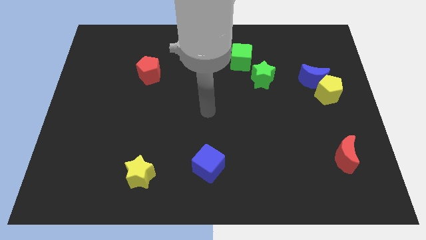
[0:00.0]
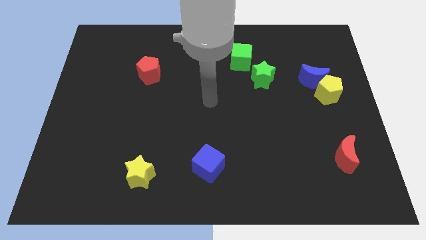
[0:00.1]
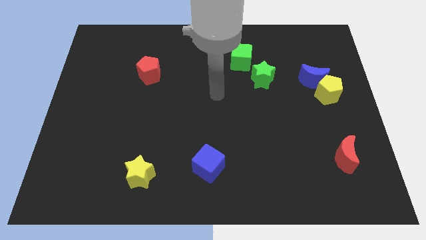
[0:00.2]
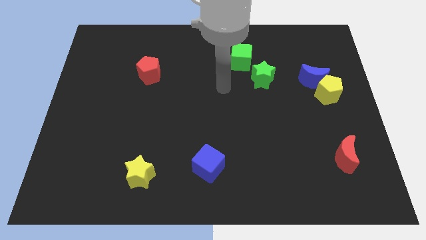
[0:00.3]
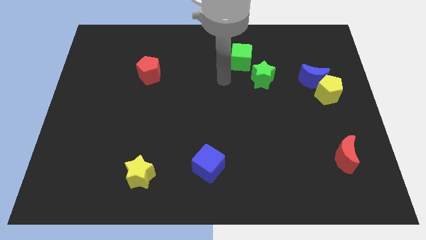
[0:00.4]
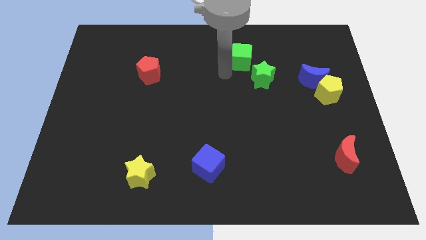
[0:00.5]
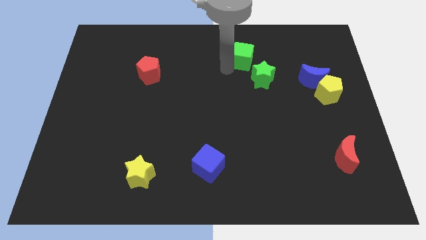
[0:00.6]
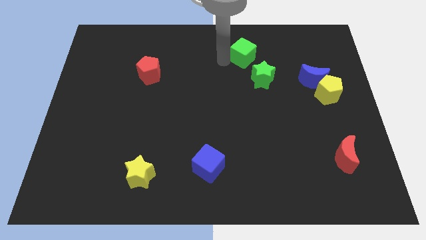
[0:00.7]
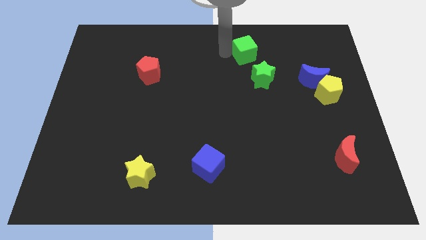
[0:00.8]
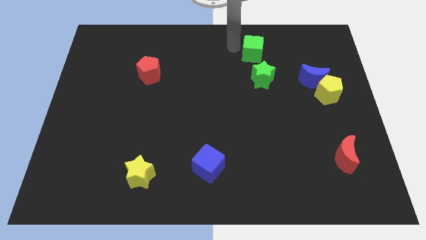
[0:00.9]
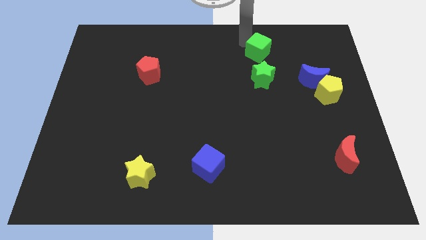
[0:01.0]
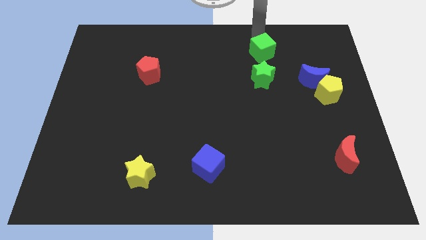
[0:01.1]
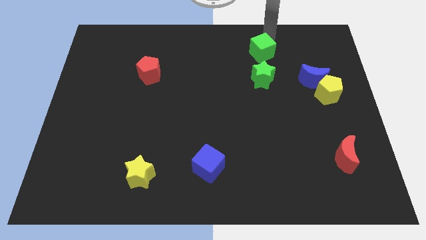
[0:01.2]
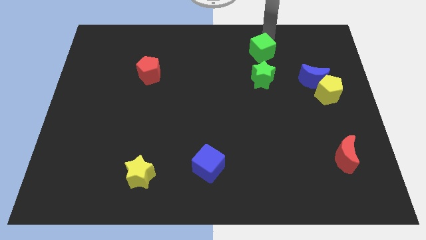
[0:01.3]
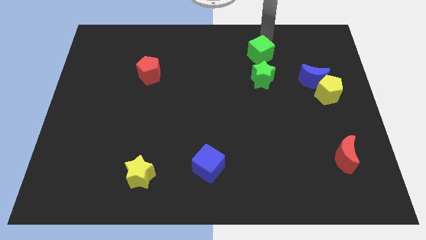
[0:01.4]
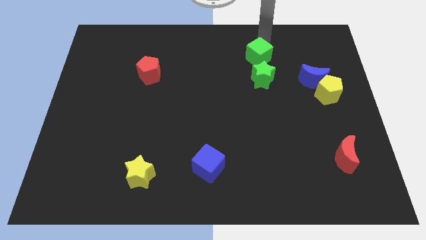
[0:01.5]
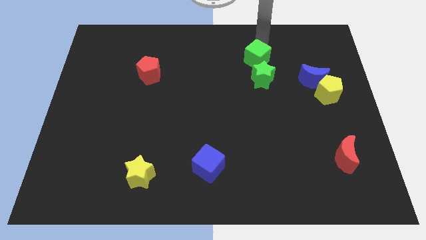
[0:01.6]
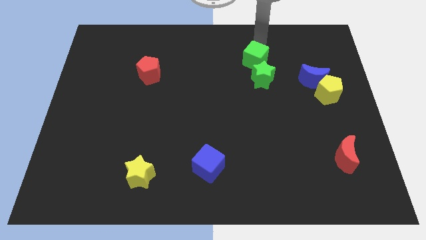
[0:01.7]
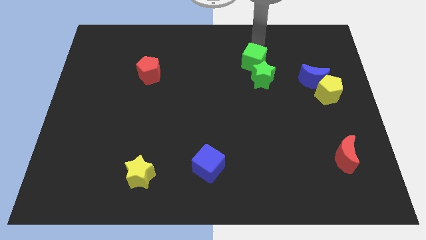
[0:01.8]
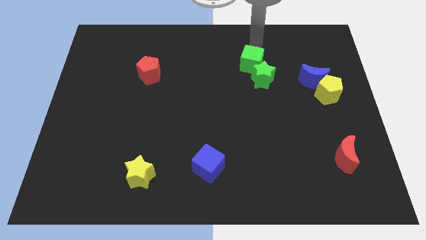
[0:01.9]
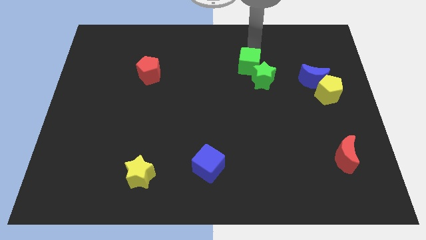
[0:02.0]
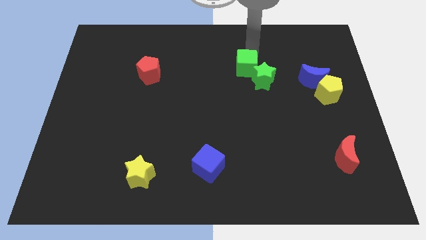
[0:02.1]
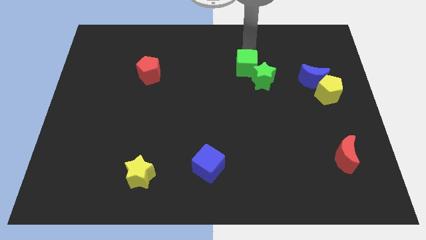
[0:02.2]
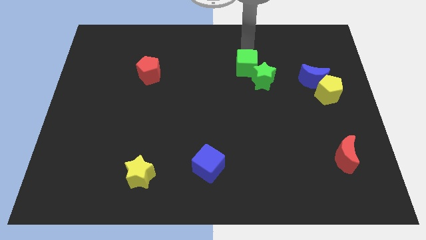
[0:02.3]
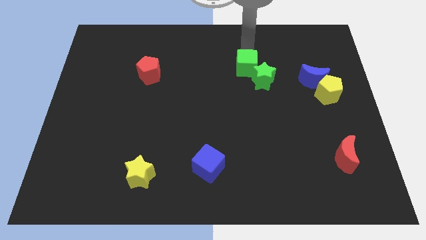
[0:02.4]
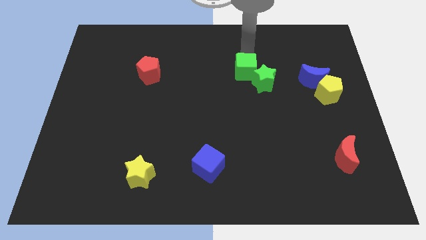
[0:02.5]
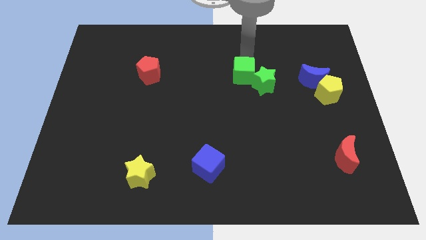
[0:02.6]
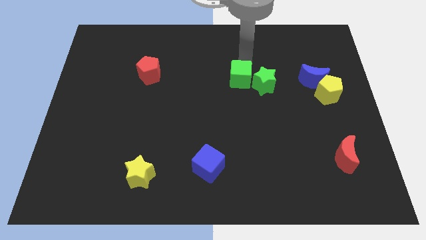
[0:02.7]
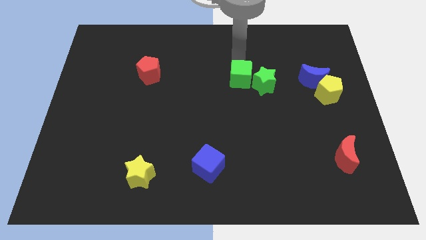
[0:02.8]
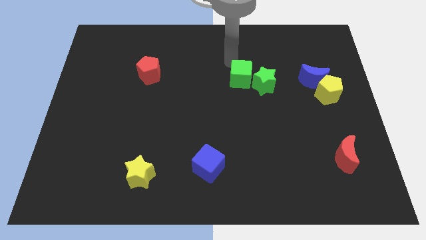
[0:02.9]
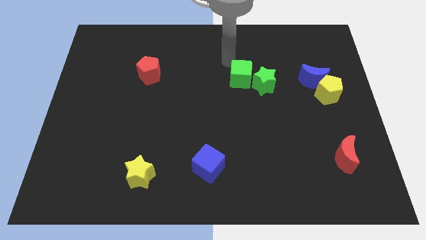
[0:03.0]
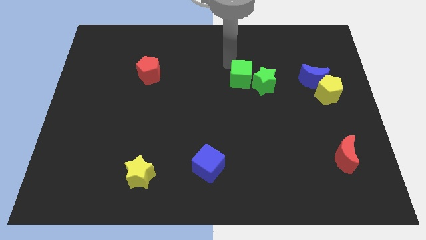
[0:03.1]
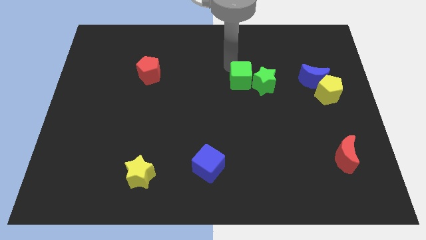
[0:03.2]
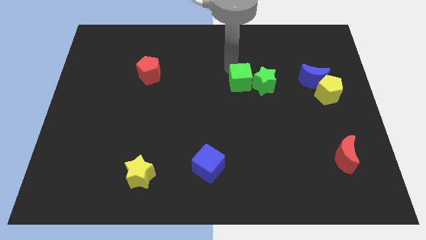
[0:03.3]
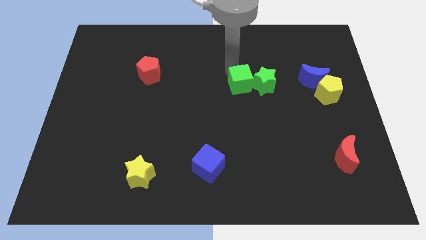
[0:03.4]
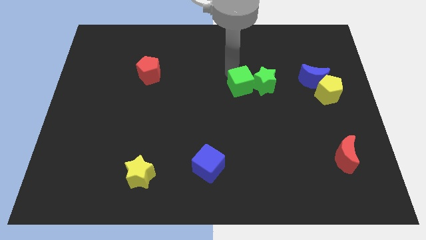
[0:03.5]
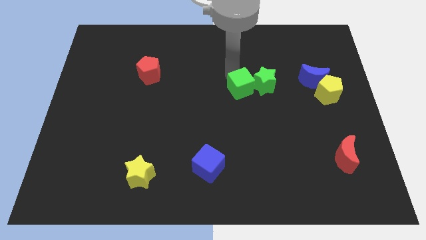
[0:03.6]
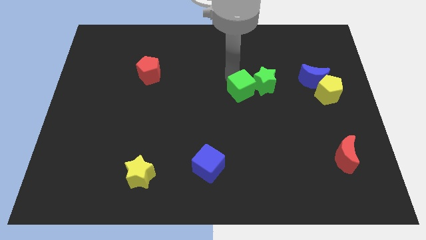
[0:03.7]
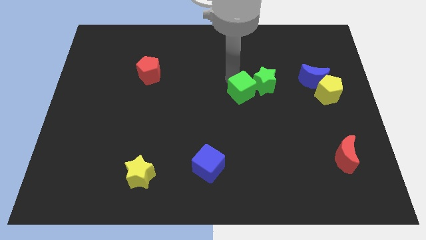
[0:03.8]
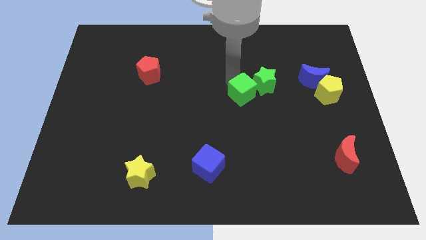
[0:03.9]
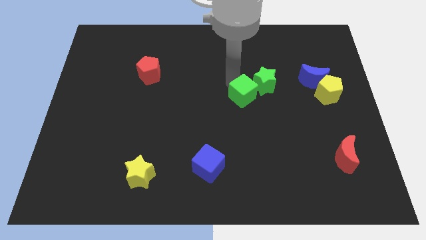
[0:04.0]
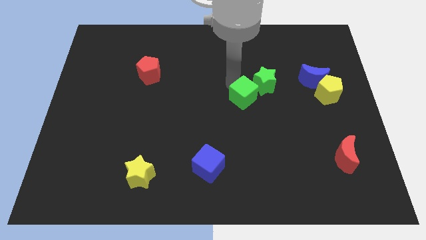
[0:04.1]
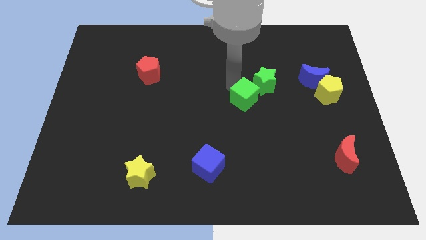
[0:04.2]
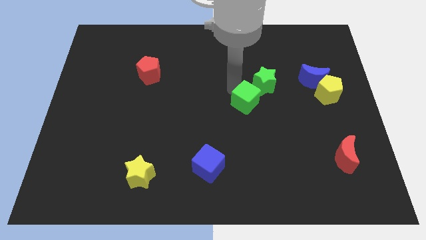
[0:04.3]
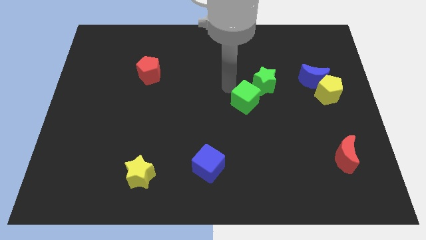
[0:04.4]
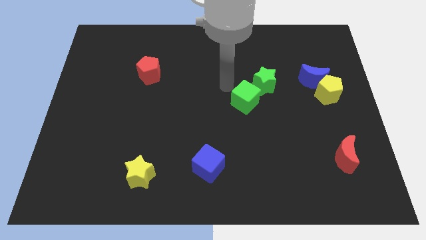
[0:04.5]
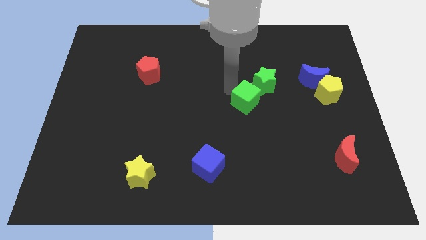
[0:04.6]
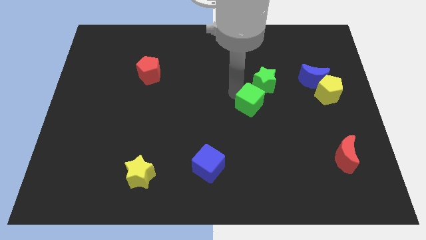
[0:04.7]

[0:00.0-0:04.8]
put the green cube below the green star

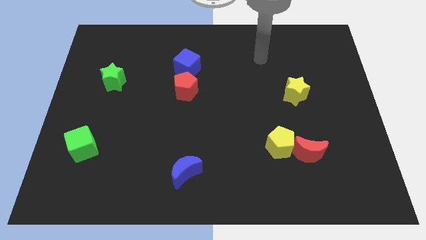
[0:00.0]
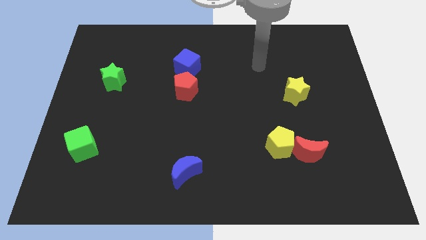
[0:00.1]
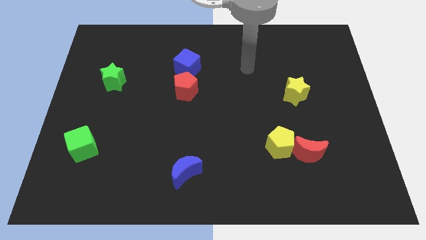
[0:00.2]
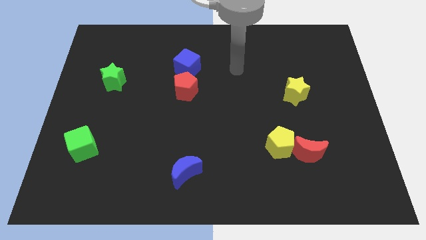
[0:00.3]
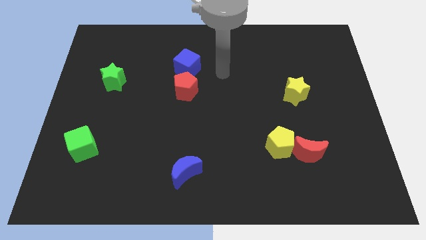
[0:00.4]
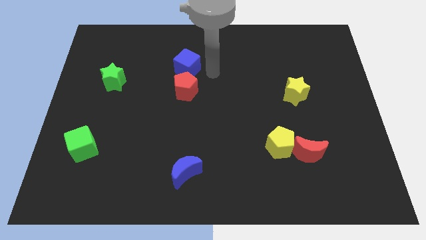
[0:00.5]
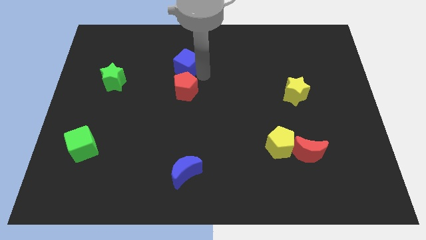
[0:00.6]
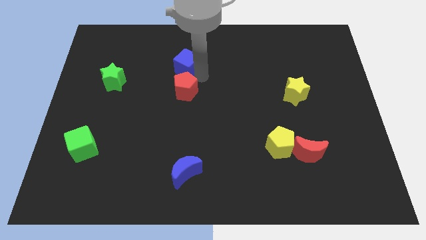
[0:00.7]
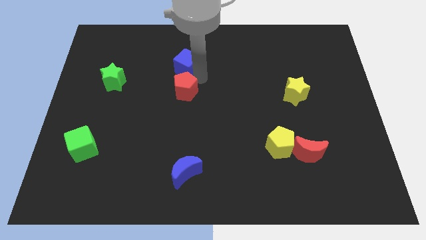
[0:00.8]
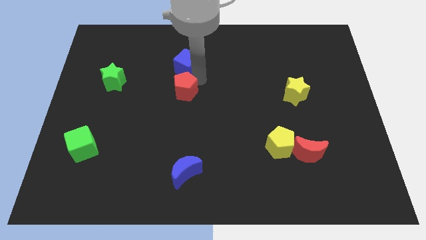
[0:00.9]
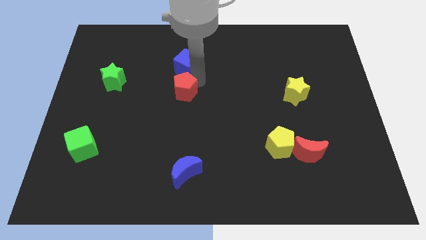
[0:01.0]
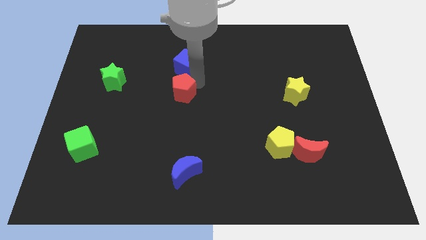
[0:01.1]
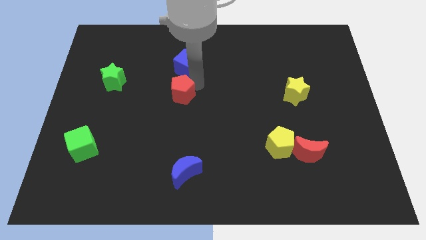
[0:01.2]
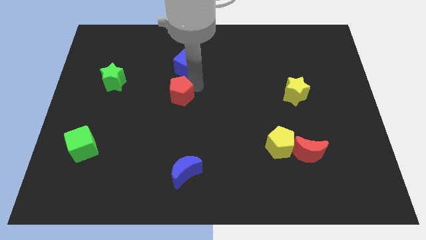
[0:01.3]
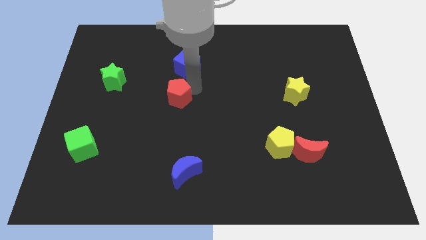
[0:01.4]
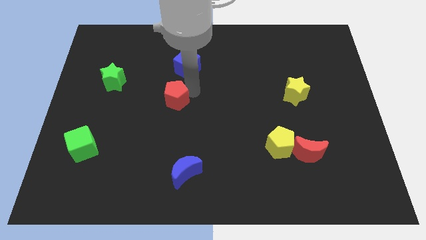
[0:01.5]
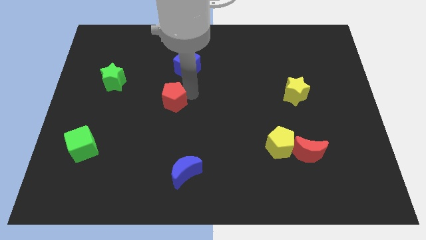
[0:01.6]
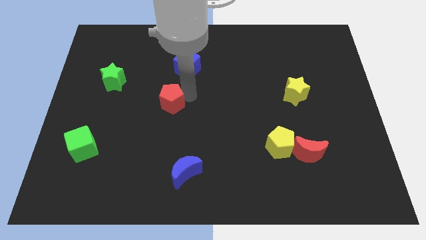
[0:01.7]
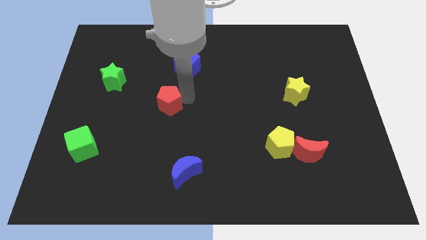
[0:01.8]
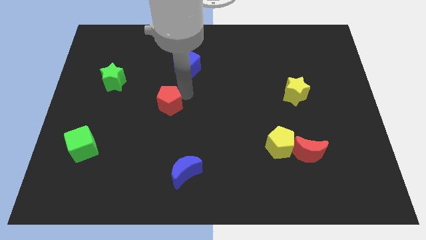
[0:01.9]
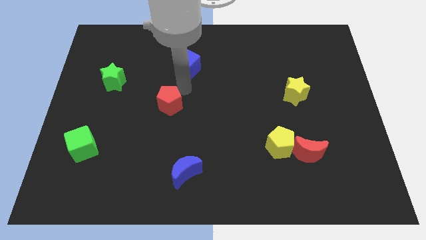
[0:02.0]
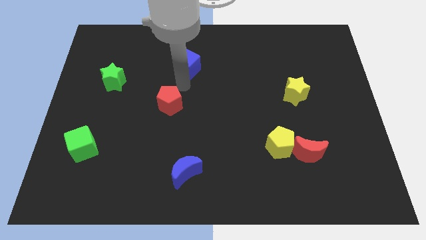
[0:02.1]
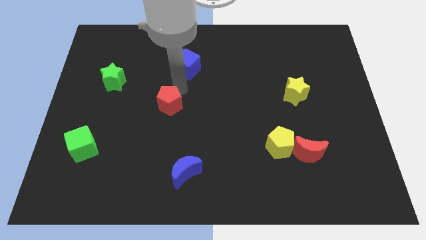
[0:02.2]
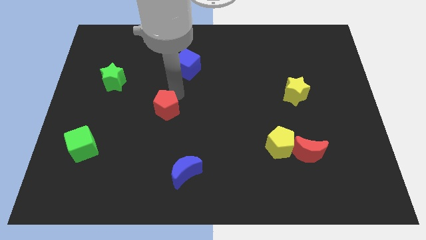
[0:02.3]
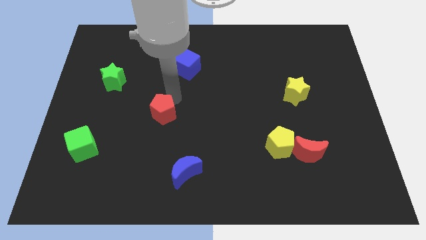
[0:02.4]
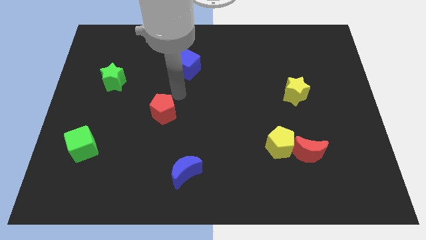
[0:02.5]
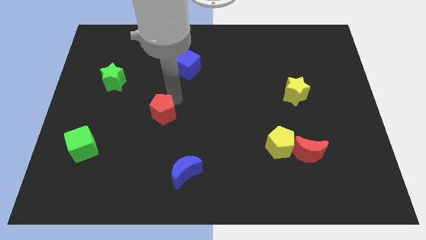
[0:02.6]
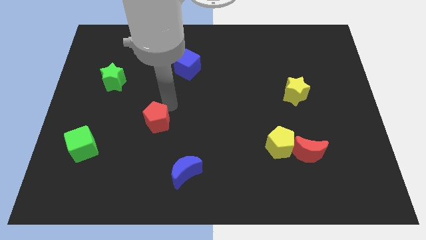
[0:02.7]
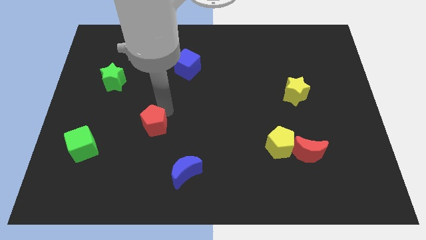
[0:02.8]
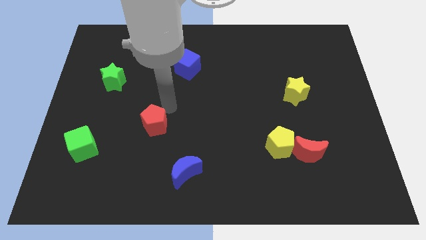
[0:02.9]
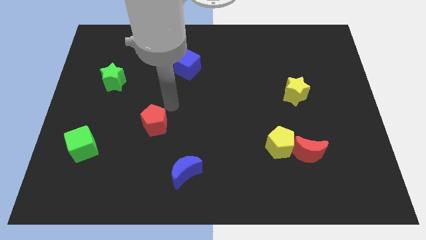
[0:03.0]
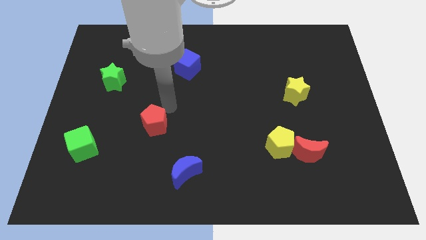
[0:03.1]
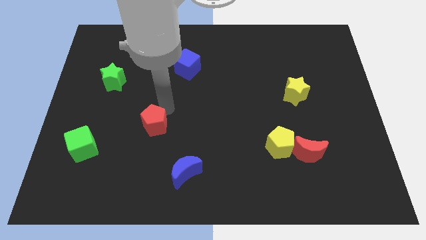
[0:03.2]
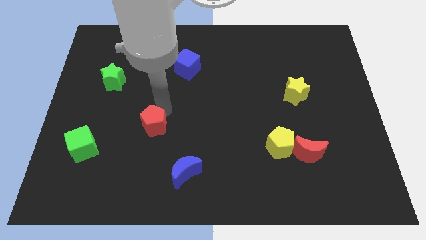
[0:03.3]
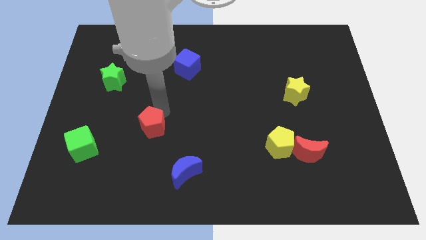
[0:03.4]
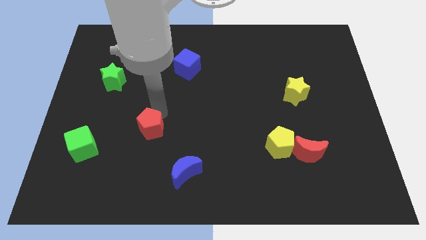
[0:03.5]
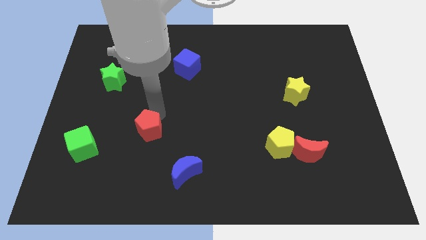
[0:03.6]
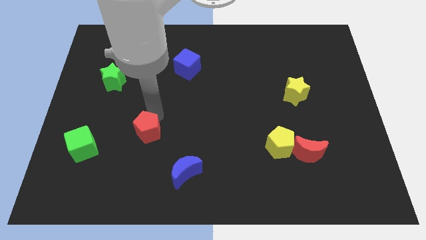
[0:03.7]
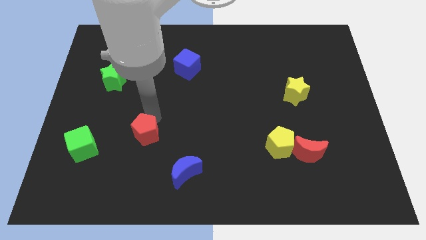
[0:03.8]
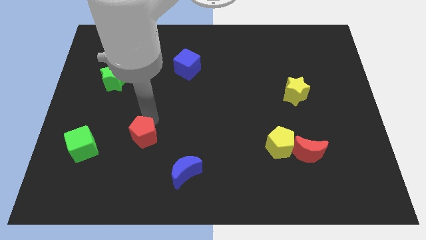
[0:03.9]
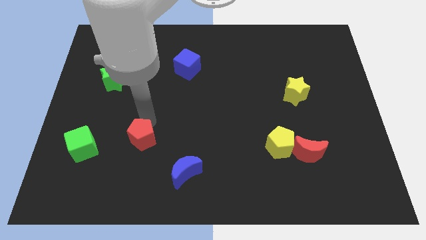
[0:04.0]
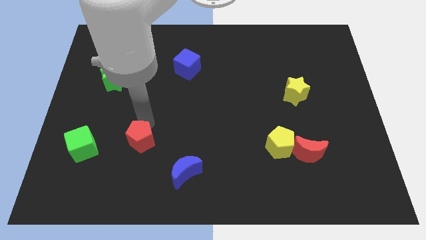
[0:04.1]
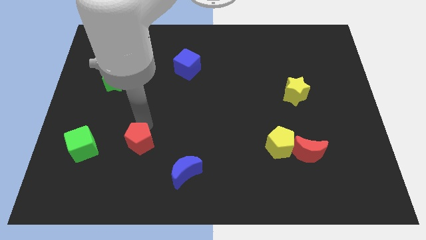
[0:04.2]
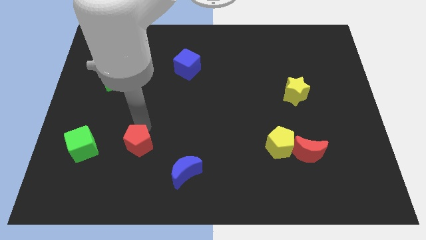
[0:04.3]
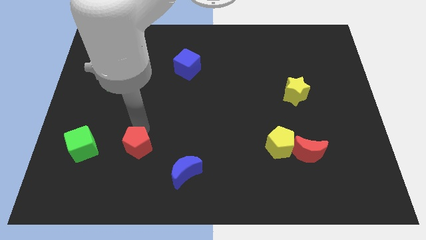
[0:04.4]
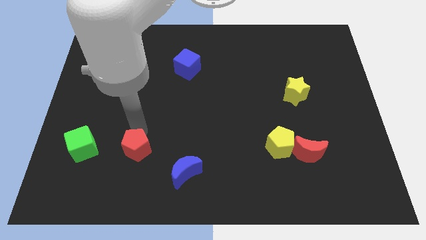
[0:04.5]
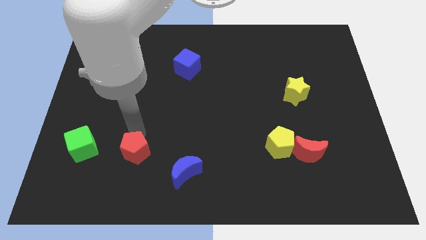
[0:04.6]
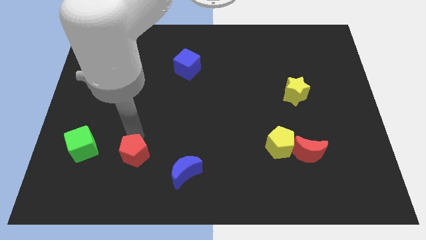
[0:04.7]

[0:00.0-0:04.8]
put the red pentagon just left of the blue moon
